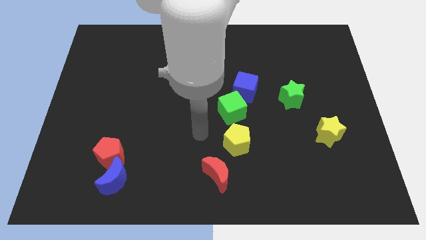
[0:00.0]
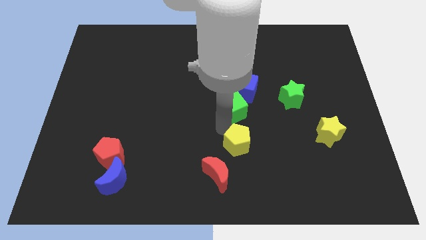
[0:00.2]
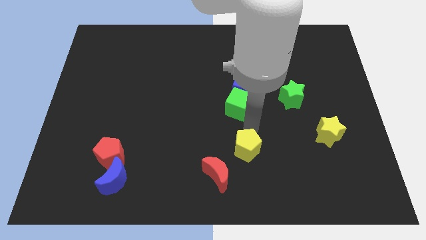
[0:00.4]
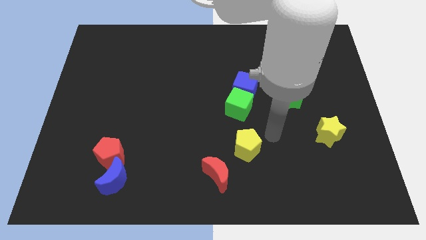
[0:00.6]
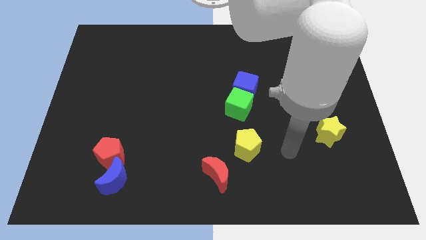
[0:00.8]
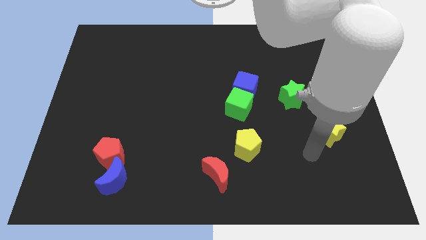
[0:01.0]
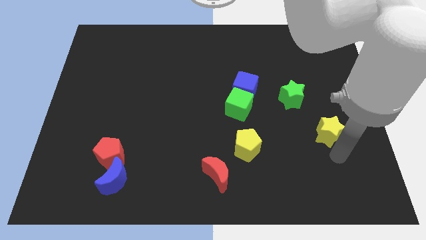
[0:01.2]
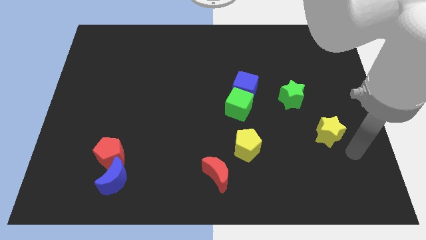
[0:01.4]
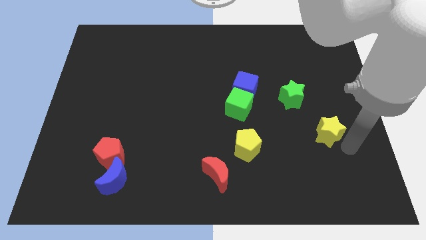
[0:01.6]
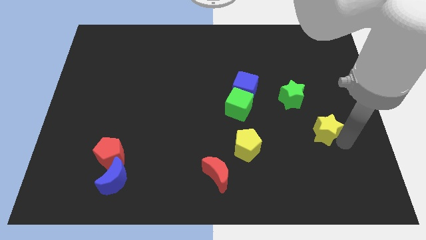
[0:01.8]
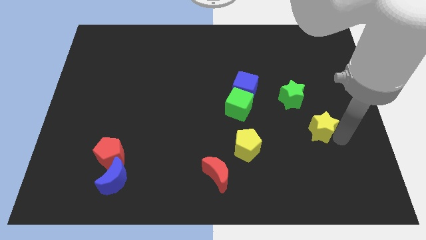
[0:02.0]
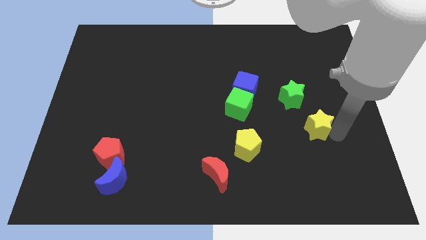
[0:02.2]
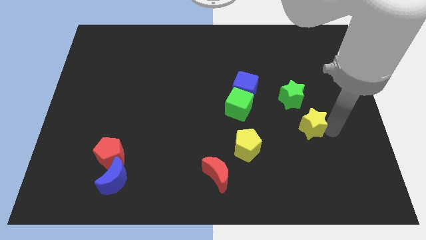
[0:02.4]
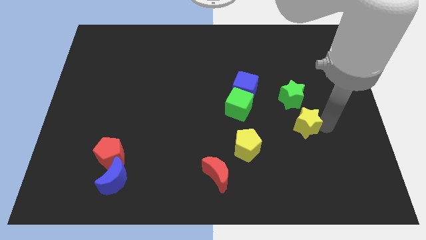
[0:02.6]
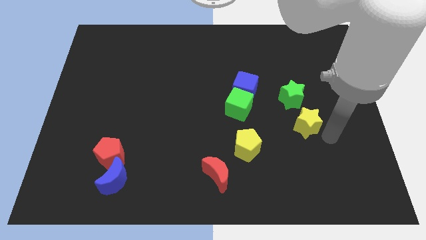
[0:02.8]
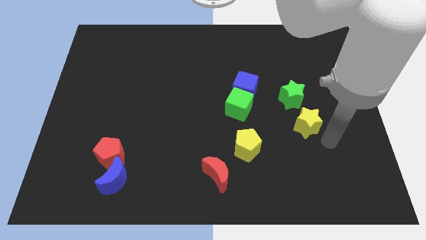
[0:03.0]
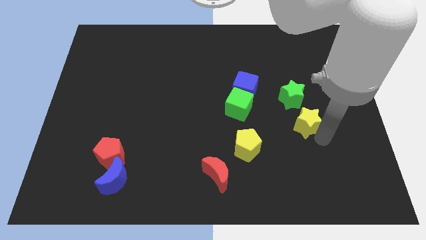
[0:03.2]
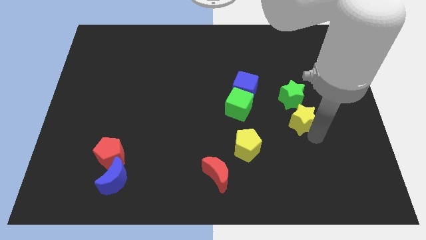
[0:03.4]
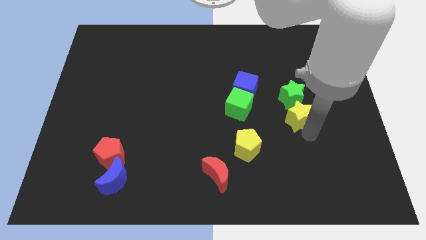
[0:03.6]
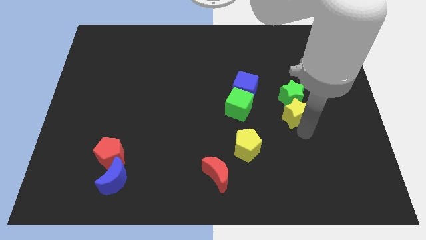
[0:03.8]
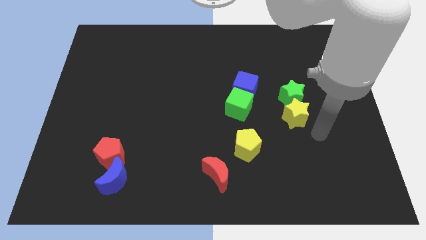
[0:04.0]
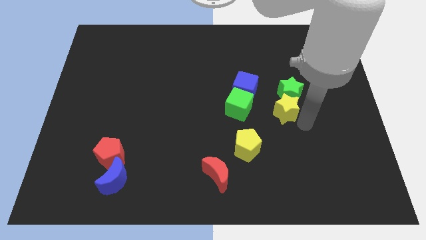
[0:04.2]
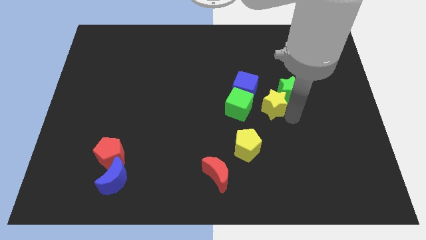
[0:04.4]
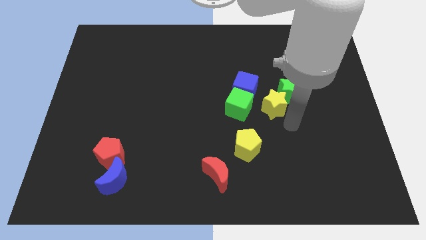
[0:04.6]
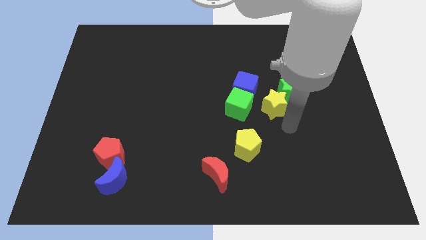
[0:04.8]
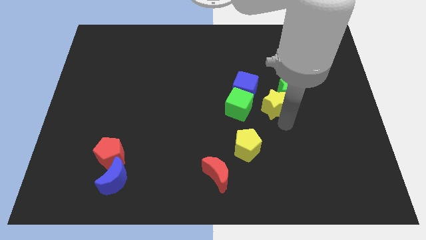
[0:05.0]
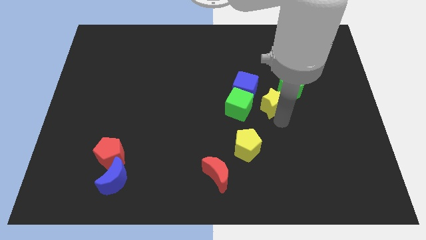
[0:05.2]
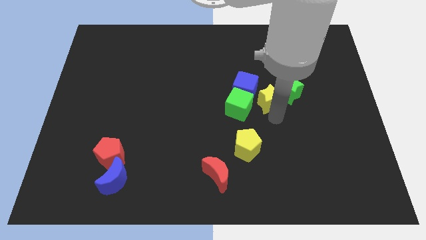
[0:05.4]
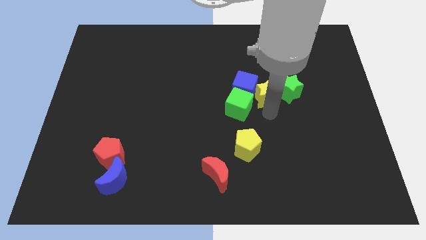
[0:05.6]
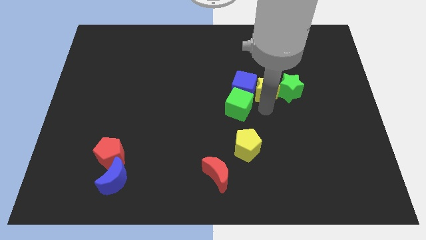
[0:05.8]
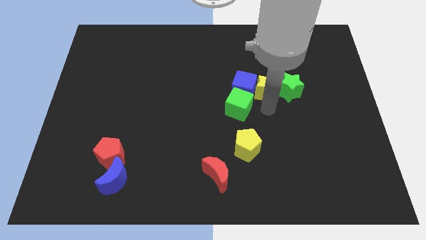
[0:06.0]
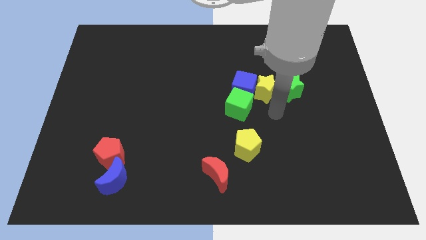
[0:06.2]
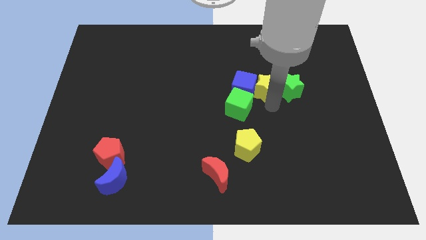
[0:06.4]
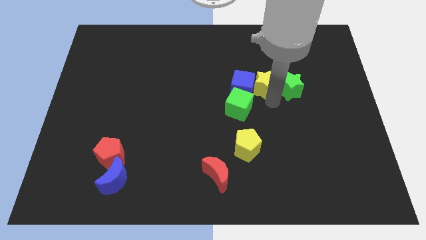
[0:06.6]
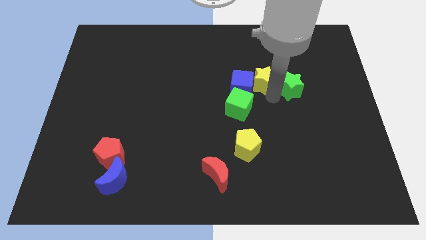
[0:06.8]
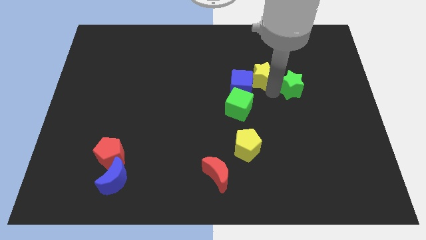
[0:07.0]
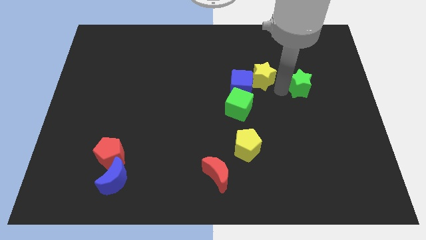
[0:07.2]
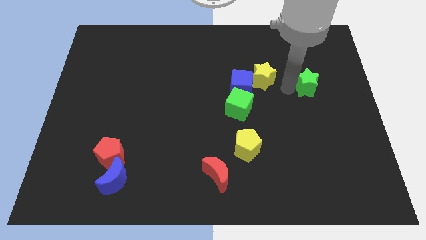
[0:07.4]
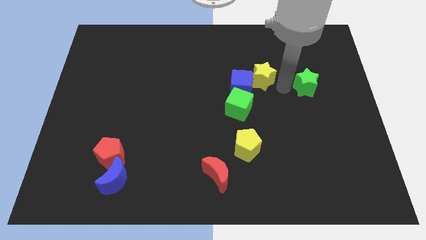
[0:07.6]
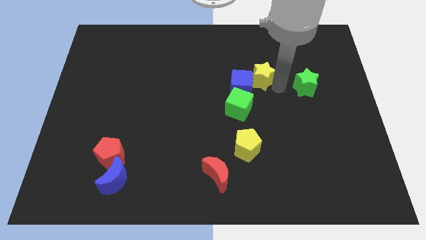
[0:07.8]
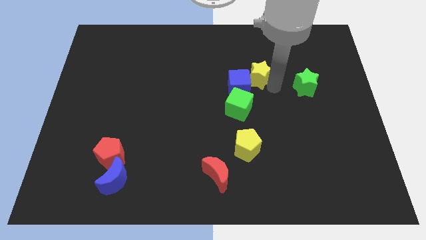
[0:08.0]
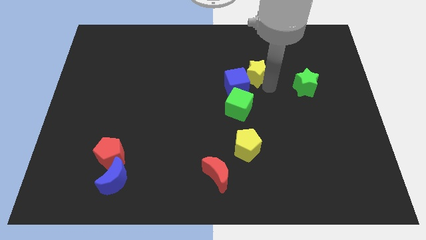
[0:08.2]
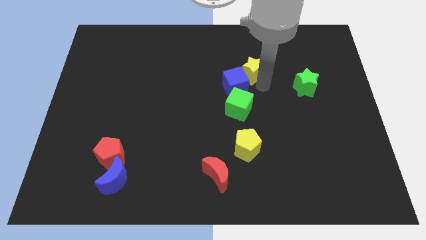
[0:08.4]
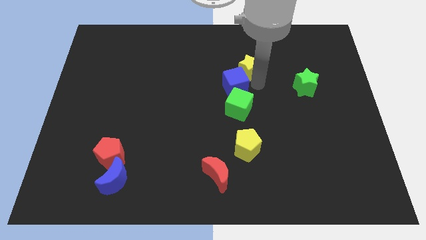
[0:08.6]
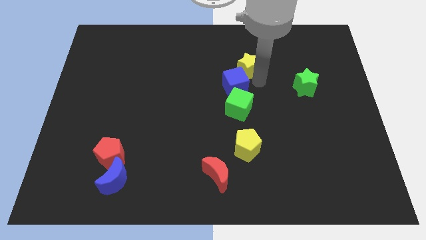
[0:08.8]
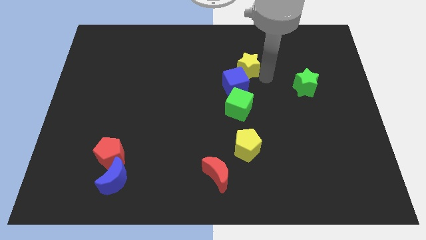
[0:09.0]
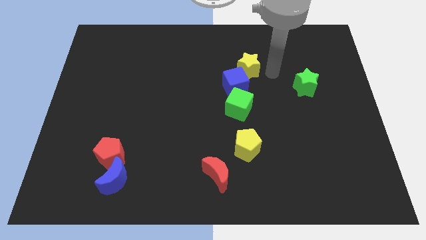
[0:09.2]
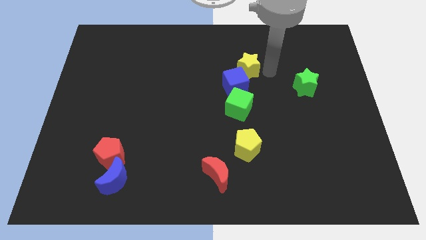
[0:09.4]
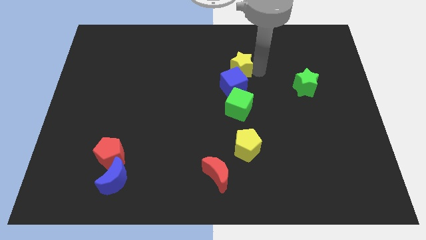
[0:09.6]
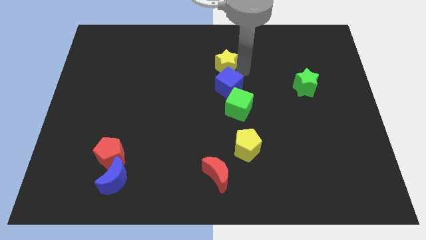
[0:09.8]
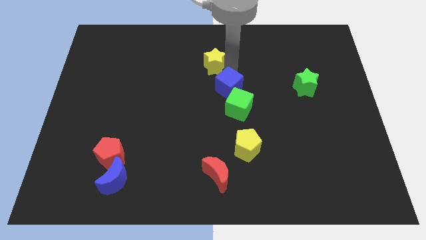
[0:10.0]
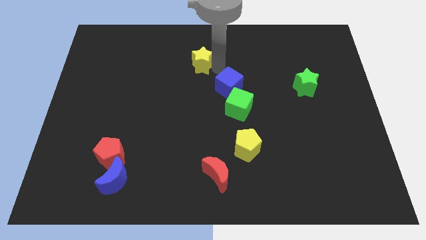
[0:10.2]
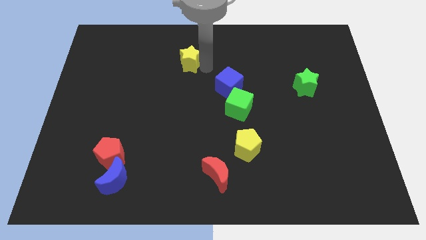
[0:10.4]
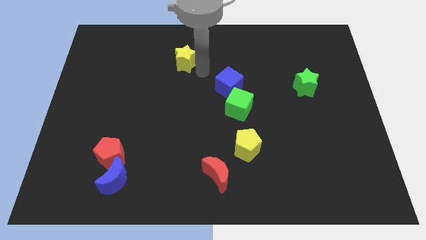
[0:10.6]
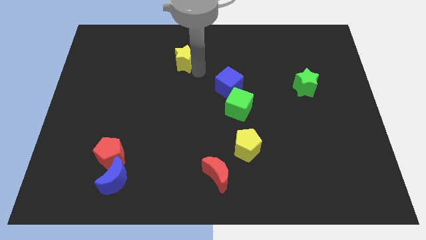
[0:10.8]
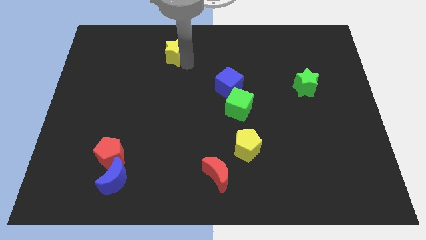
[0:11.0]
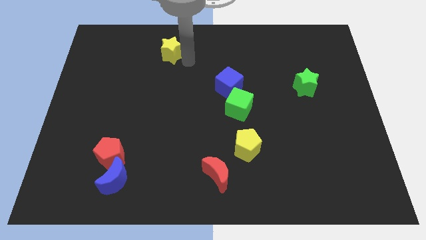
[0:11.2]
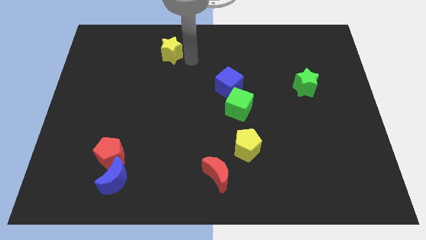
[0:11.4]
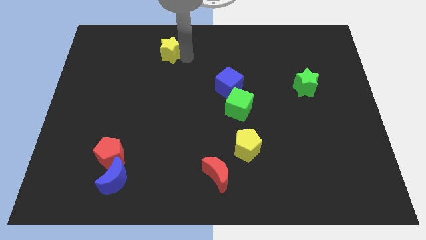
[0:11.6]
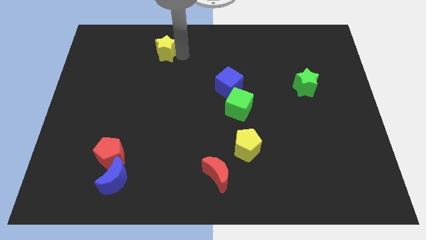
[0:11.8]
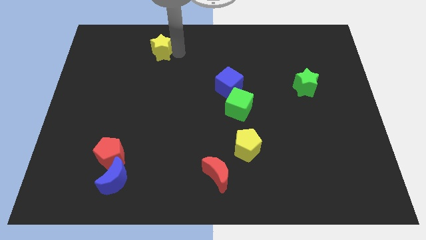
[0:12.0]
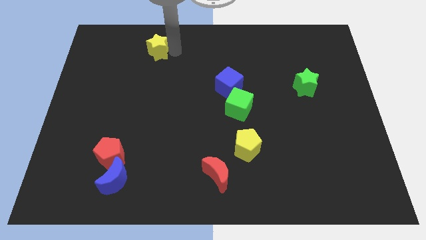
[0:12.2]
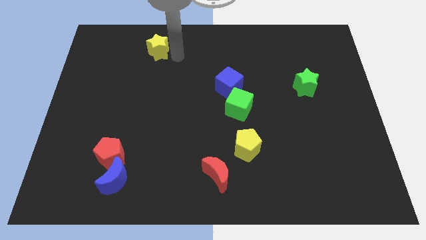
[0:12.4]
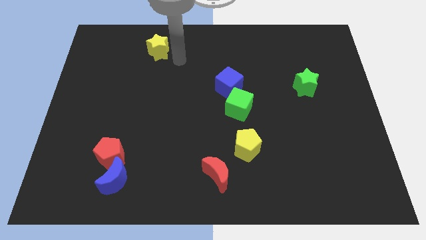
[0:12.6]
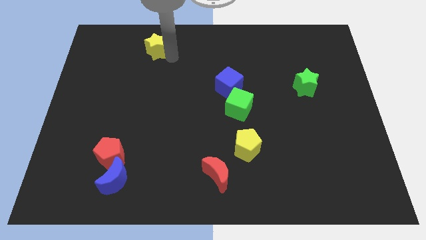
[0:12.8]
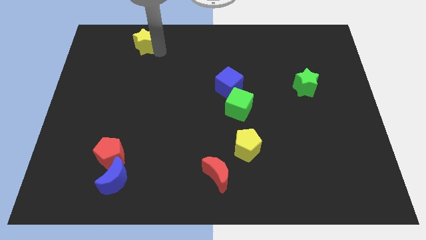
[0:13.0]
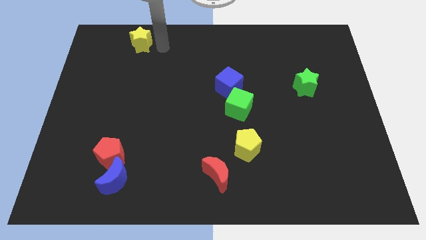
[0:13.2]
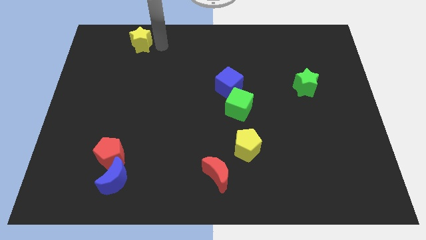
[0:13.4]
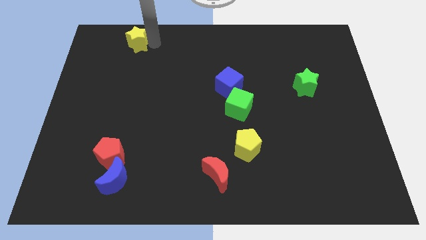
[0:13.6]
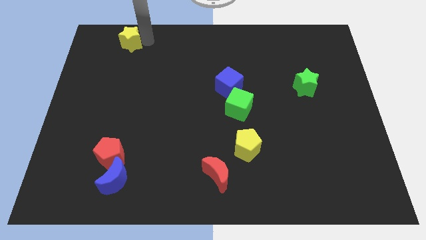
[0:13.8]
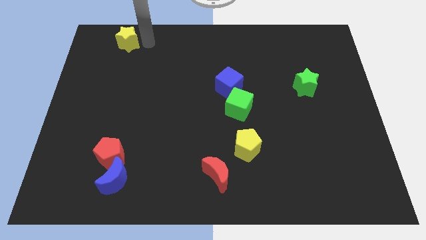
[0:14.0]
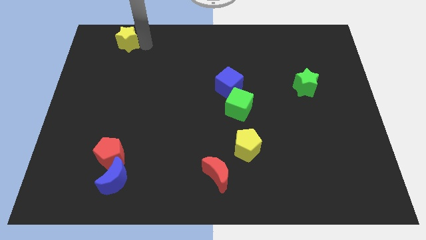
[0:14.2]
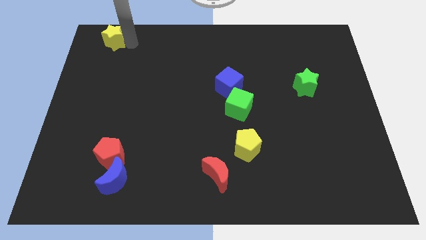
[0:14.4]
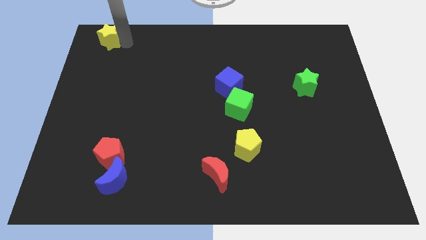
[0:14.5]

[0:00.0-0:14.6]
slide the yellow star to the top left
